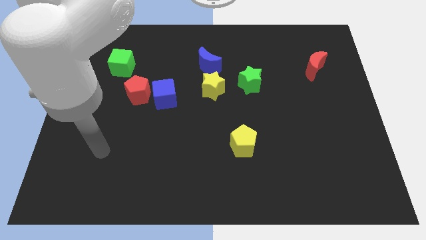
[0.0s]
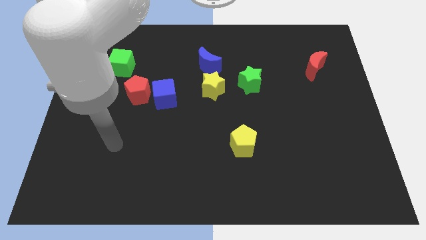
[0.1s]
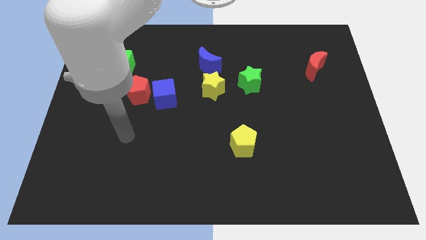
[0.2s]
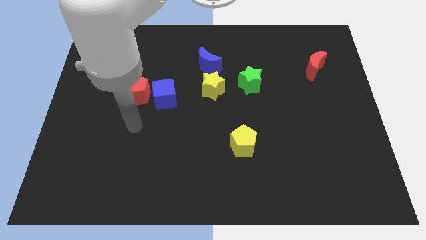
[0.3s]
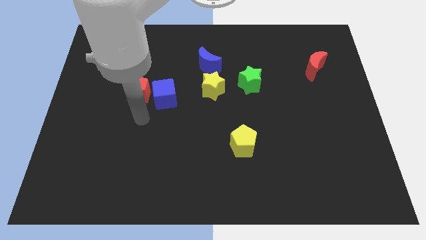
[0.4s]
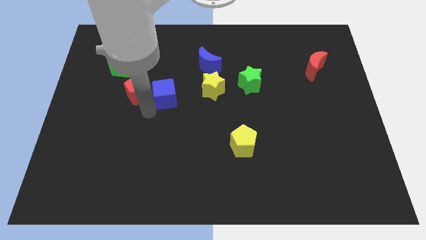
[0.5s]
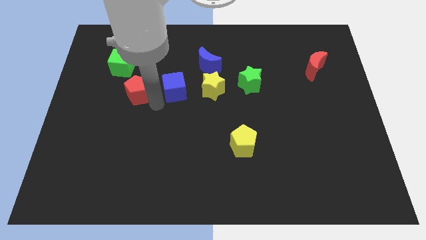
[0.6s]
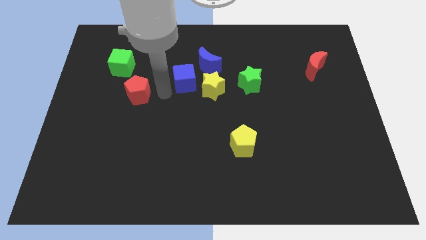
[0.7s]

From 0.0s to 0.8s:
separate the red pentagon from the blue cube

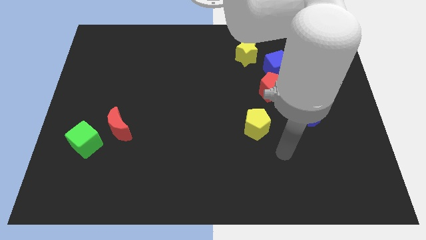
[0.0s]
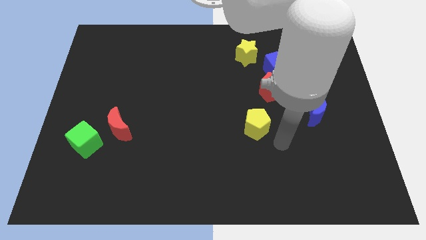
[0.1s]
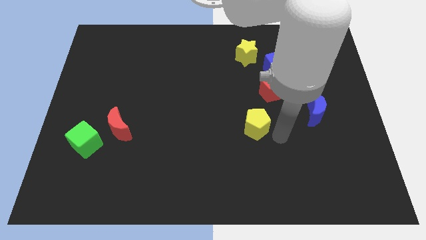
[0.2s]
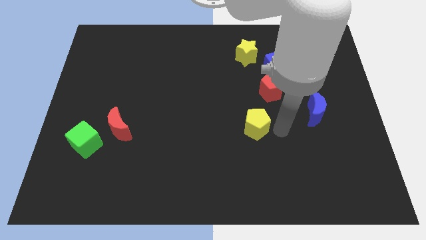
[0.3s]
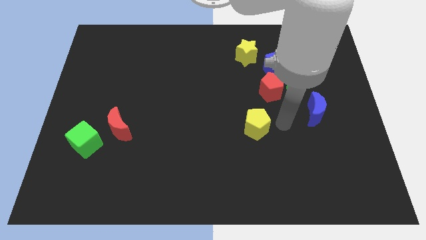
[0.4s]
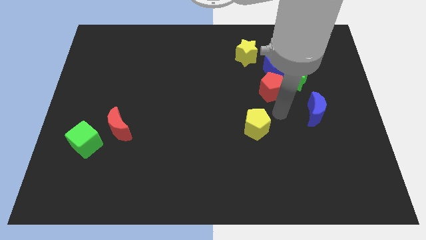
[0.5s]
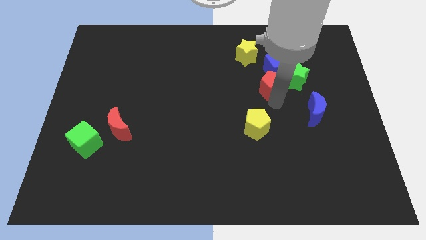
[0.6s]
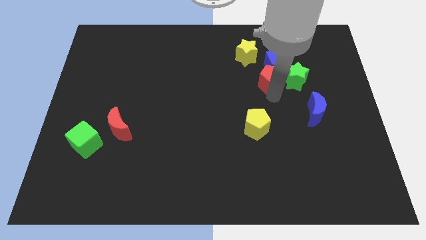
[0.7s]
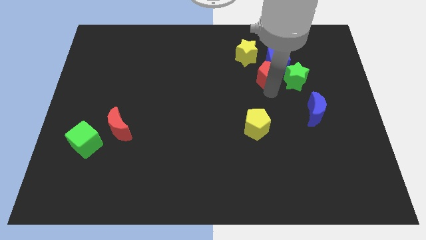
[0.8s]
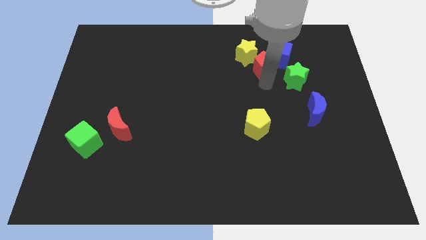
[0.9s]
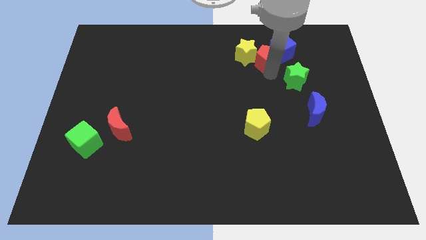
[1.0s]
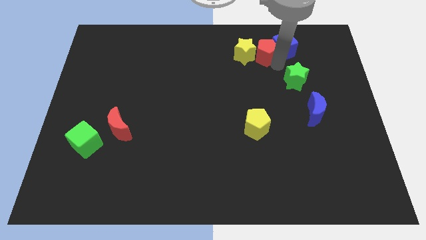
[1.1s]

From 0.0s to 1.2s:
separate the green star from the blue cube and red pentagon

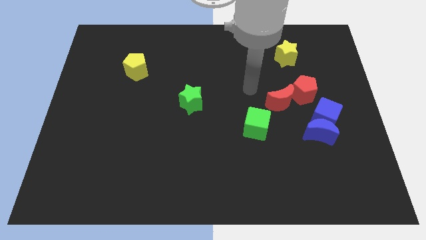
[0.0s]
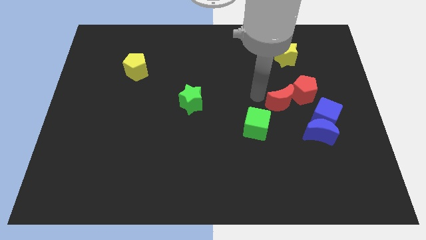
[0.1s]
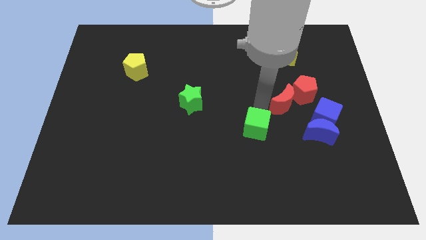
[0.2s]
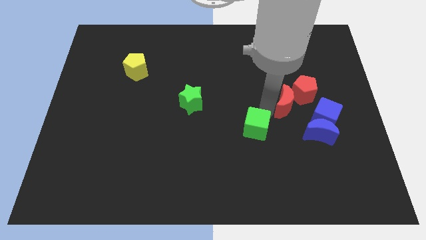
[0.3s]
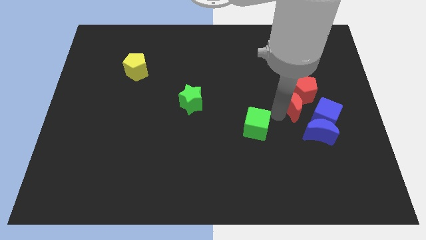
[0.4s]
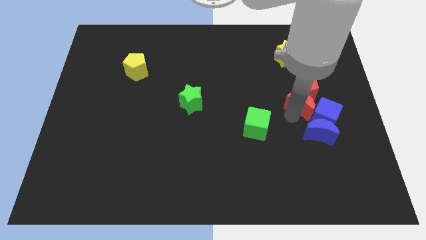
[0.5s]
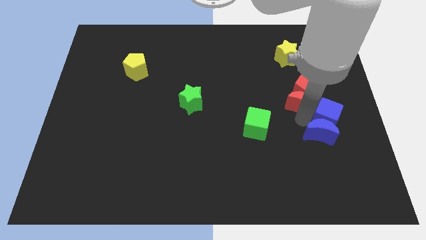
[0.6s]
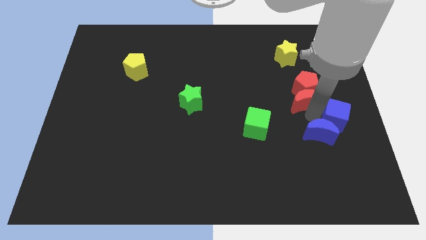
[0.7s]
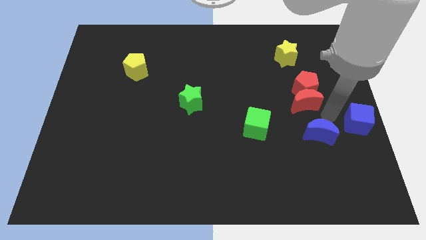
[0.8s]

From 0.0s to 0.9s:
separate the blue moon from the blue cube

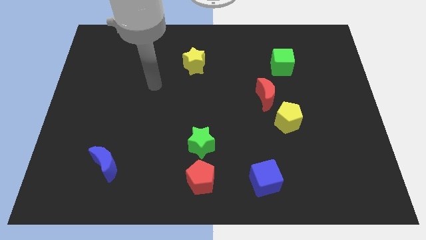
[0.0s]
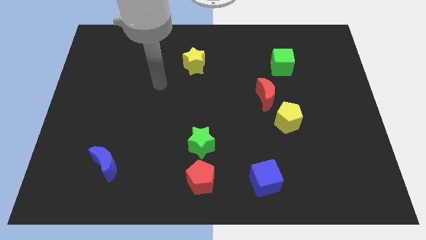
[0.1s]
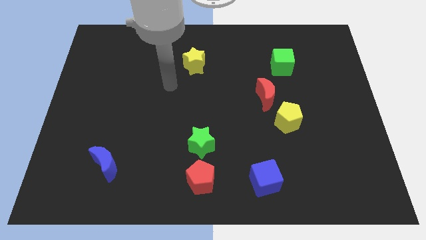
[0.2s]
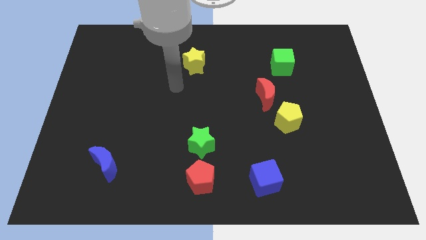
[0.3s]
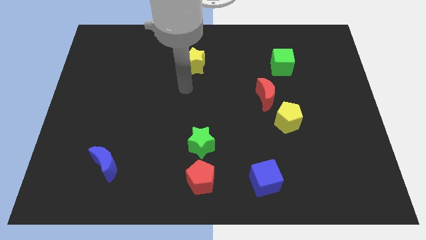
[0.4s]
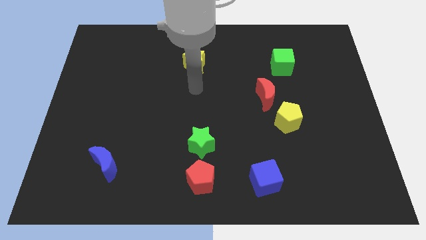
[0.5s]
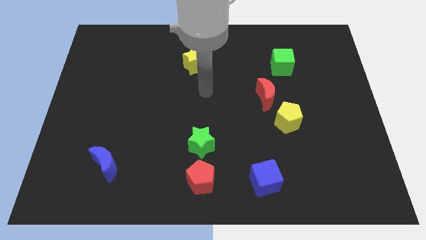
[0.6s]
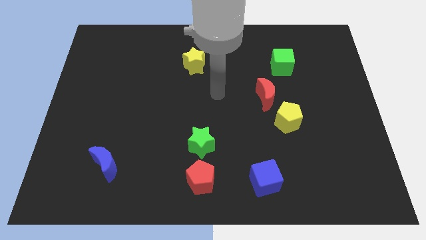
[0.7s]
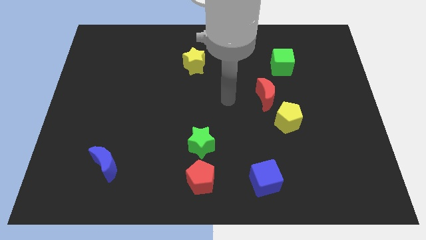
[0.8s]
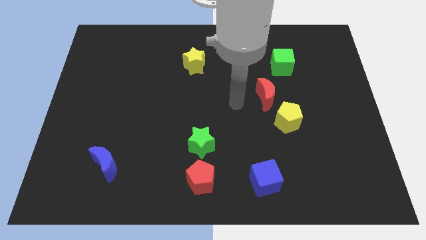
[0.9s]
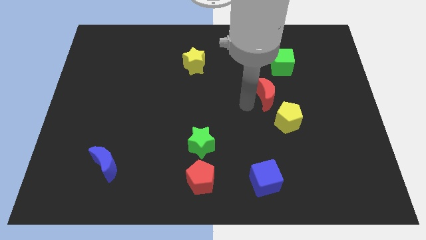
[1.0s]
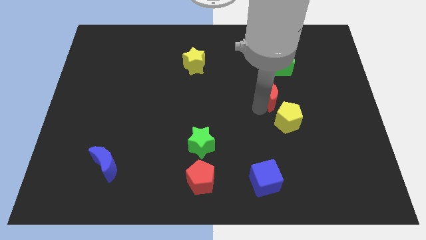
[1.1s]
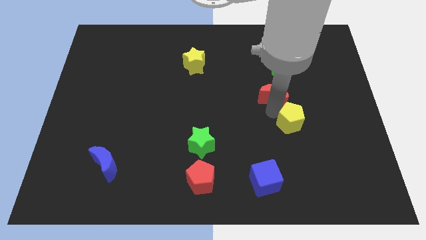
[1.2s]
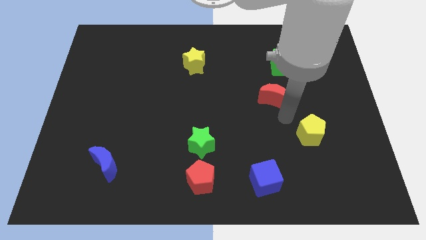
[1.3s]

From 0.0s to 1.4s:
move the red moon away from the yellow pentagon

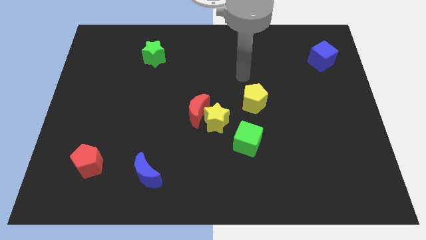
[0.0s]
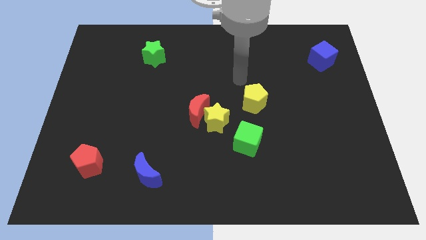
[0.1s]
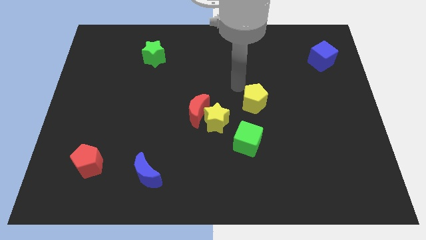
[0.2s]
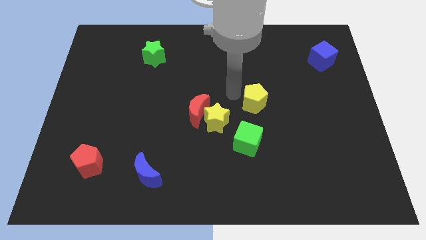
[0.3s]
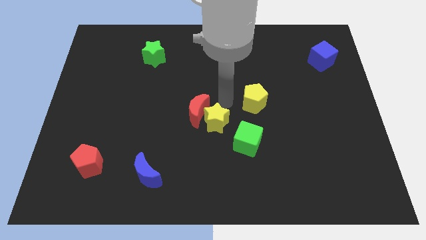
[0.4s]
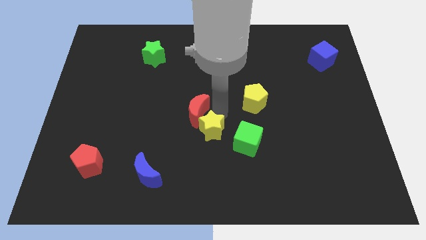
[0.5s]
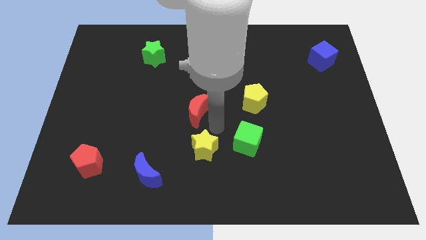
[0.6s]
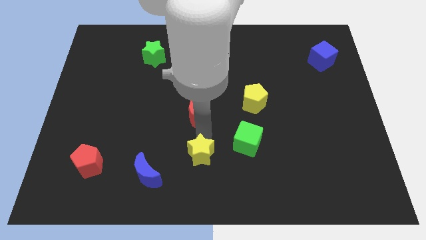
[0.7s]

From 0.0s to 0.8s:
separate the red moon from the yellow star

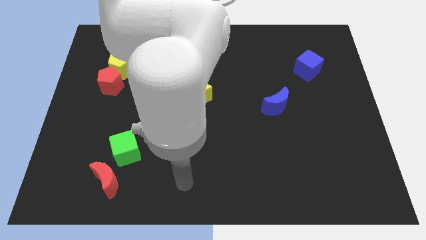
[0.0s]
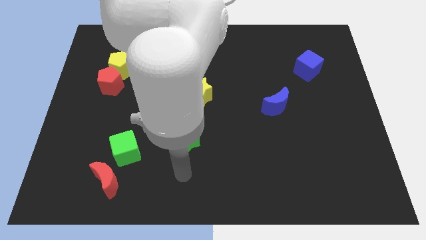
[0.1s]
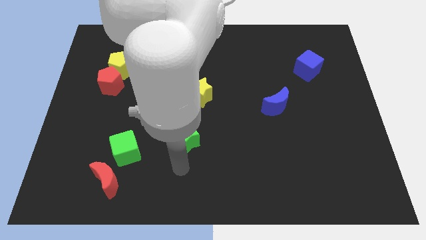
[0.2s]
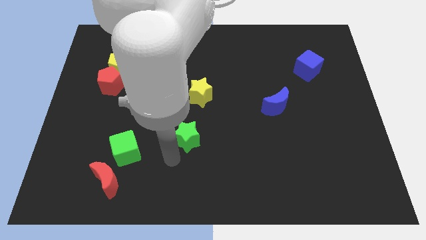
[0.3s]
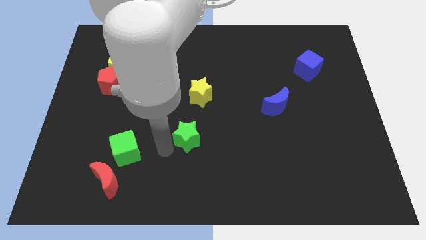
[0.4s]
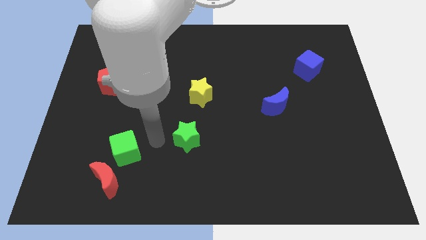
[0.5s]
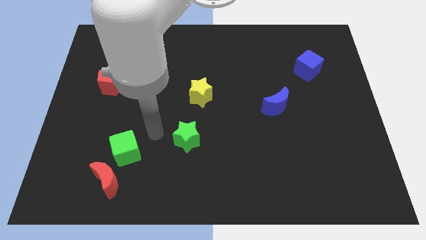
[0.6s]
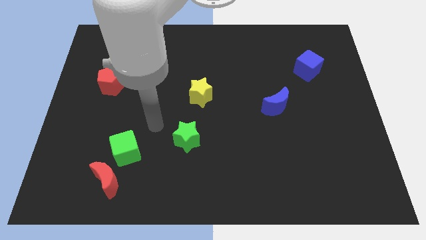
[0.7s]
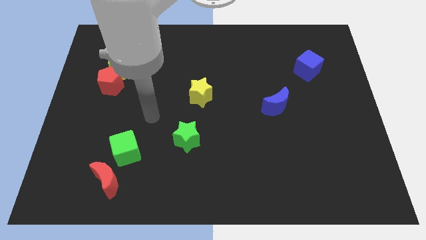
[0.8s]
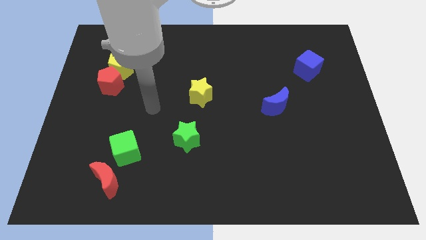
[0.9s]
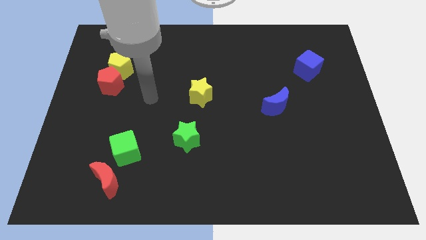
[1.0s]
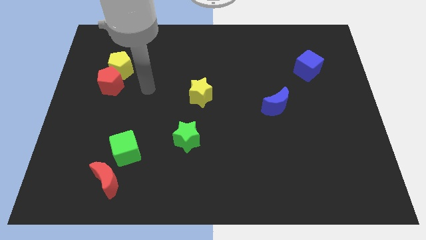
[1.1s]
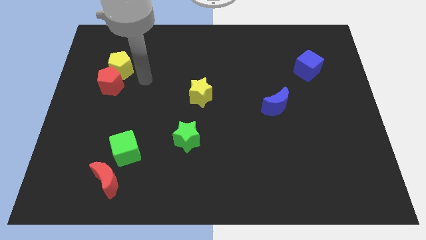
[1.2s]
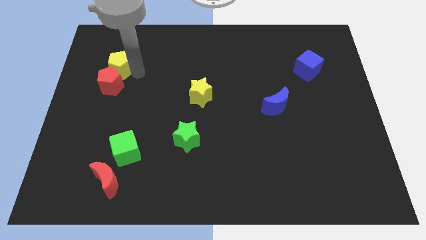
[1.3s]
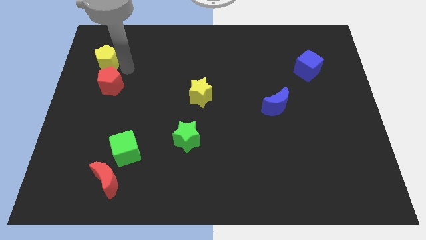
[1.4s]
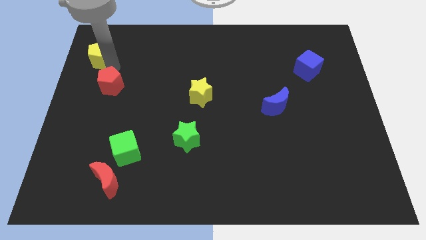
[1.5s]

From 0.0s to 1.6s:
pull the red pentagon apart from the yellow pentagon
